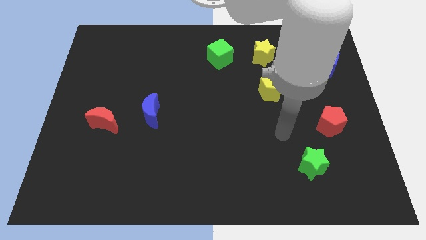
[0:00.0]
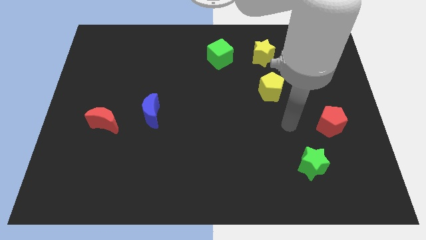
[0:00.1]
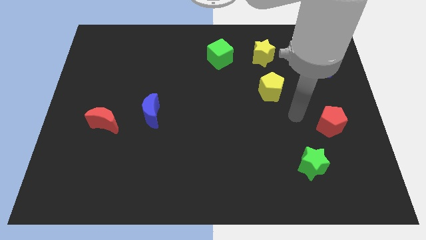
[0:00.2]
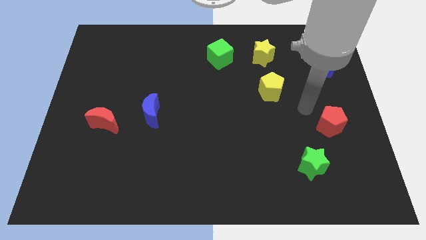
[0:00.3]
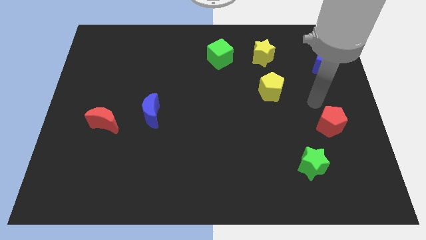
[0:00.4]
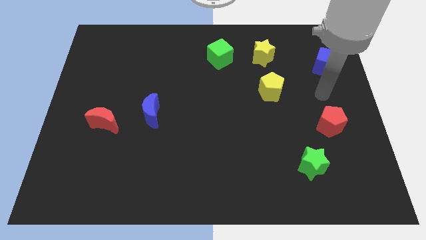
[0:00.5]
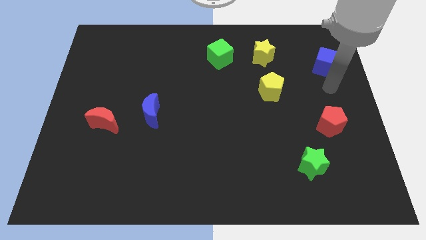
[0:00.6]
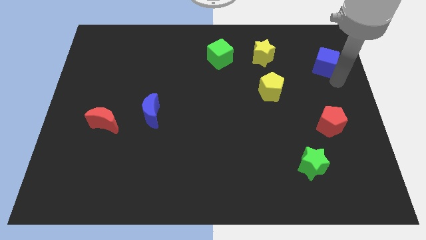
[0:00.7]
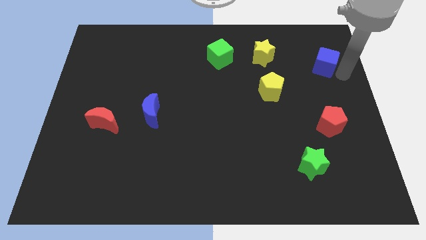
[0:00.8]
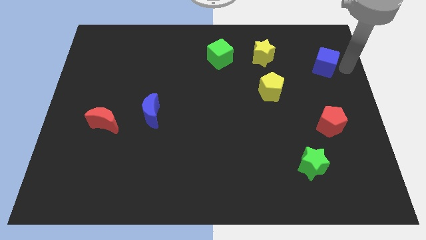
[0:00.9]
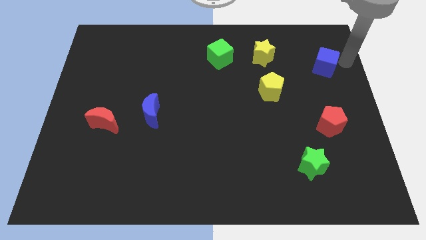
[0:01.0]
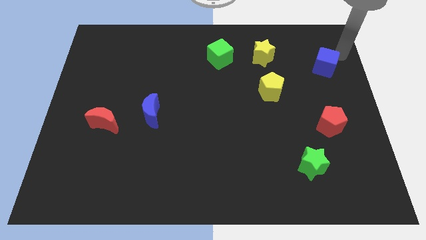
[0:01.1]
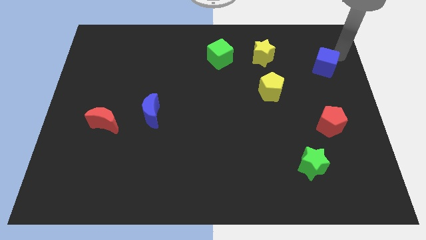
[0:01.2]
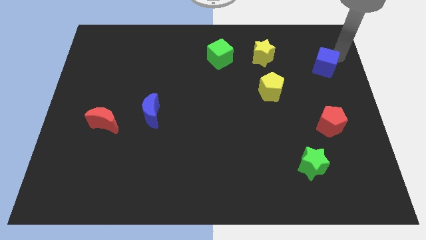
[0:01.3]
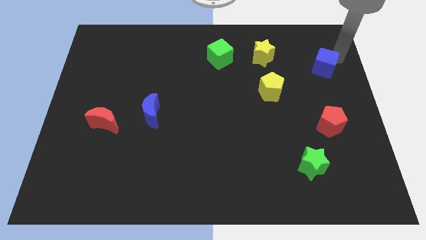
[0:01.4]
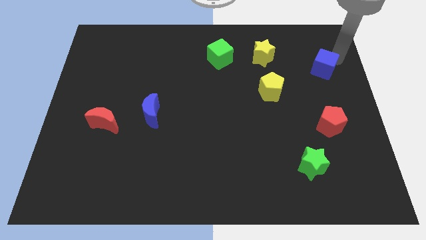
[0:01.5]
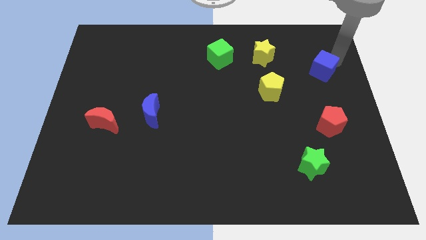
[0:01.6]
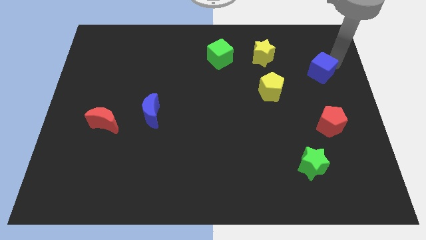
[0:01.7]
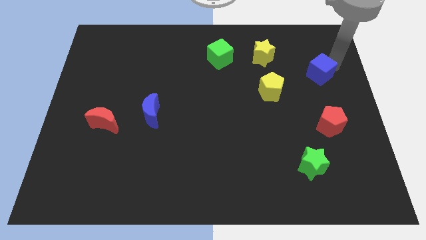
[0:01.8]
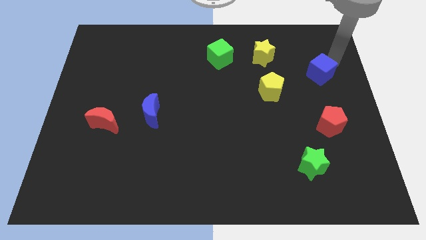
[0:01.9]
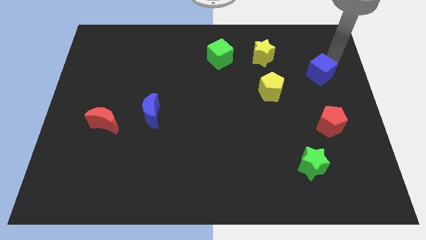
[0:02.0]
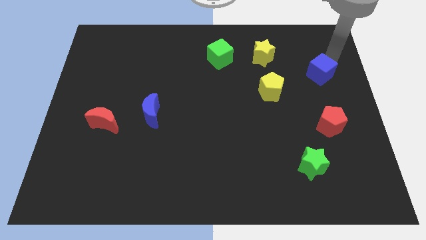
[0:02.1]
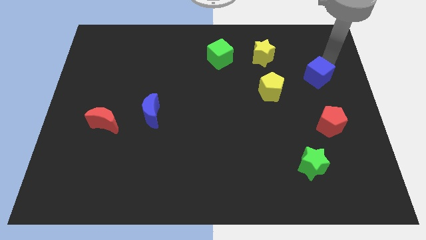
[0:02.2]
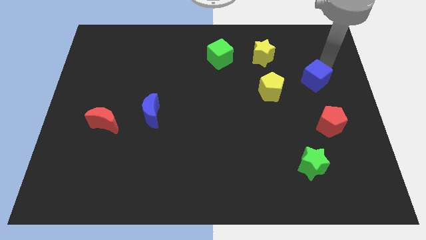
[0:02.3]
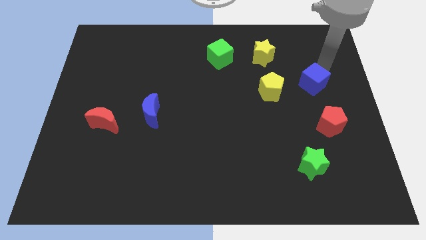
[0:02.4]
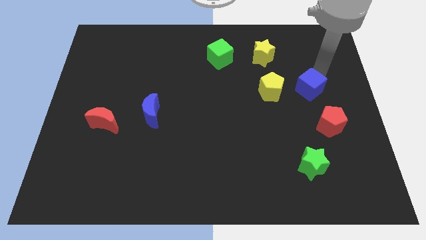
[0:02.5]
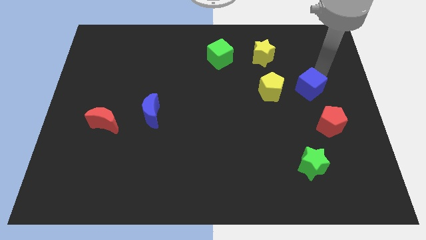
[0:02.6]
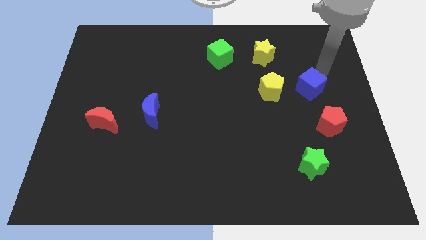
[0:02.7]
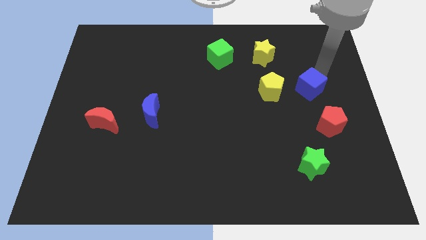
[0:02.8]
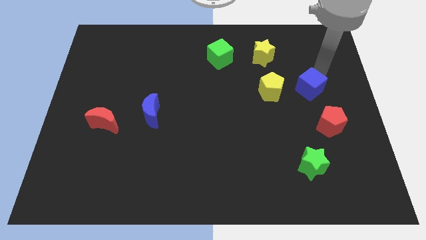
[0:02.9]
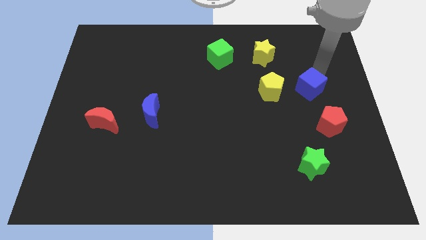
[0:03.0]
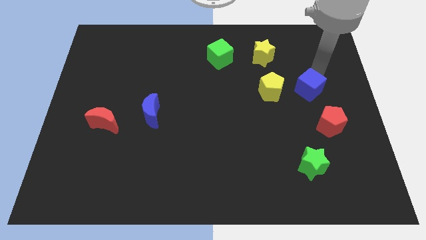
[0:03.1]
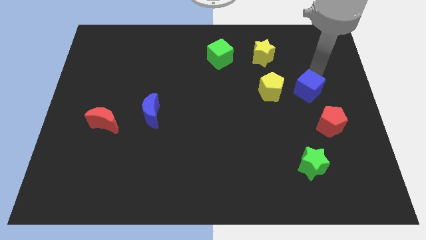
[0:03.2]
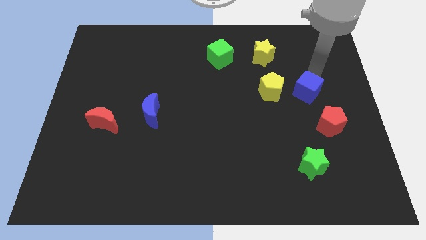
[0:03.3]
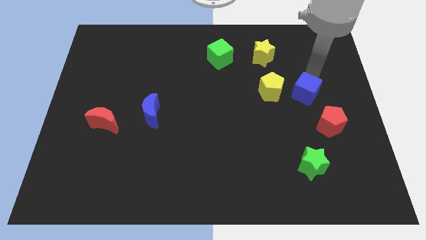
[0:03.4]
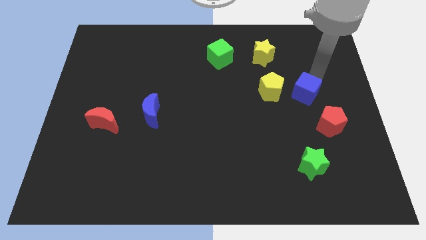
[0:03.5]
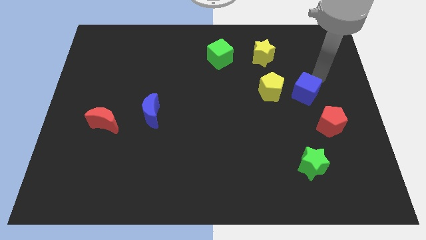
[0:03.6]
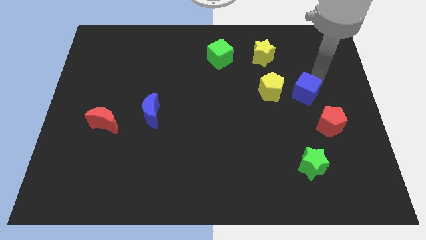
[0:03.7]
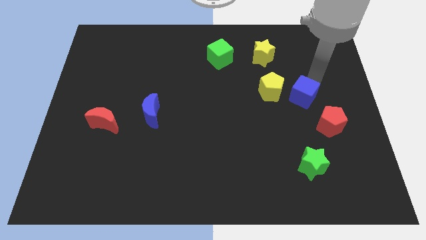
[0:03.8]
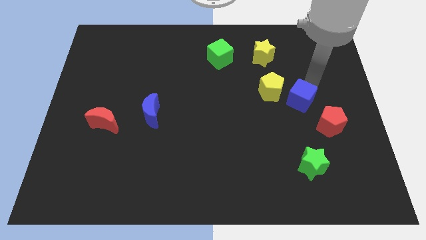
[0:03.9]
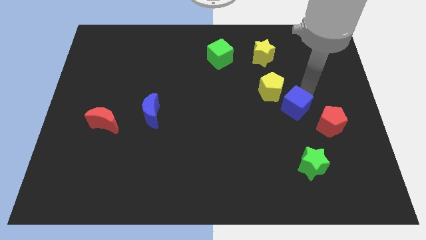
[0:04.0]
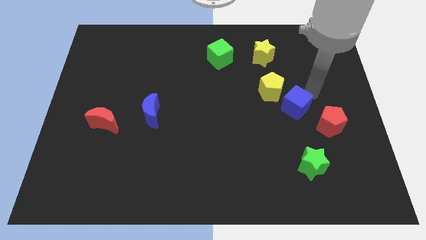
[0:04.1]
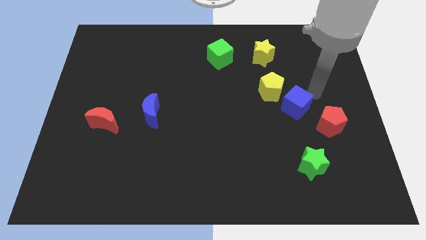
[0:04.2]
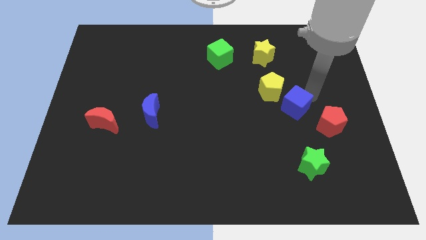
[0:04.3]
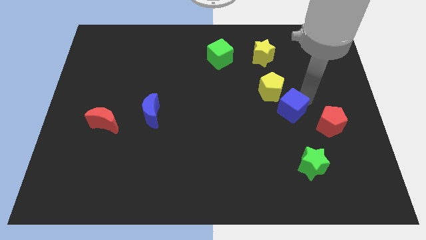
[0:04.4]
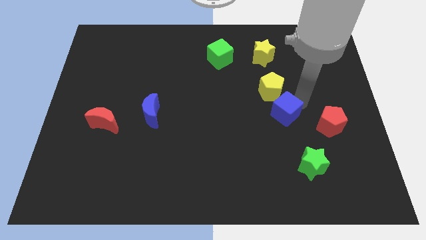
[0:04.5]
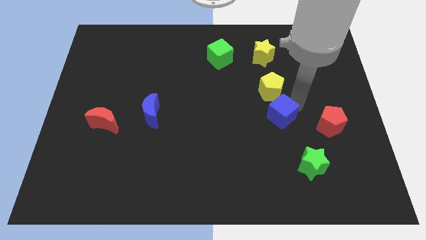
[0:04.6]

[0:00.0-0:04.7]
move the blue cube down and left

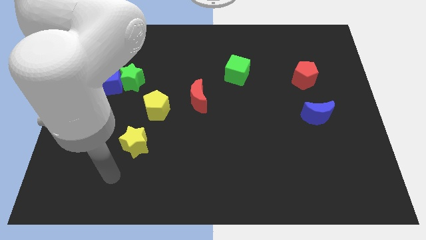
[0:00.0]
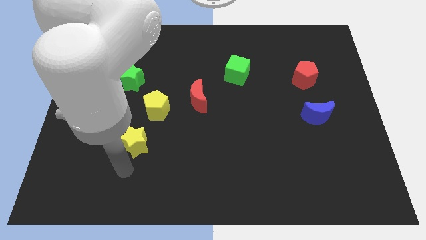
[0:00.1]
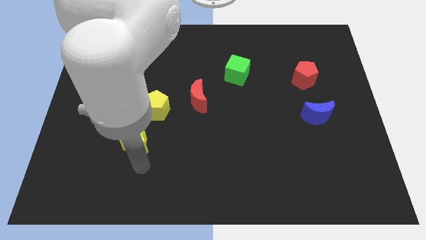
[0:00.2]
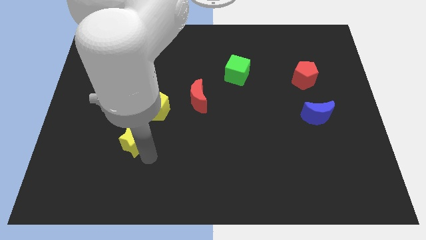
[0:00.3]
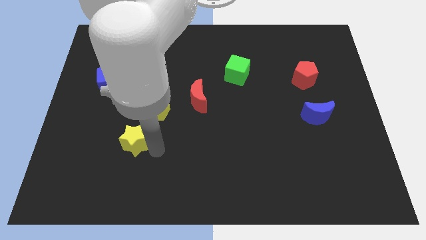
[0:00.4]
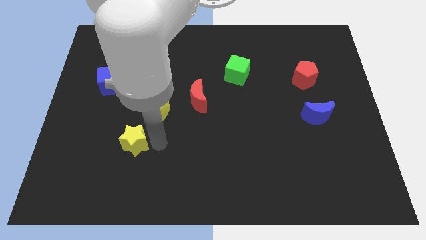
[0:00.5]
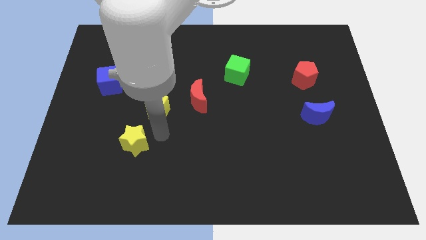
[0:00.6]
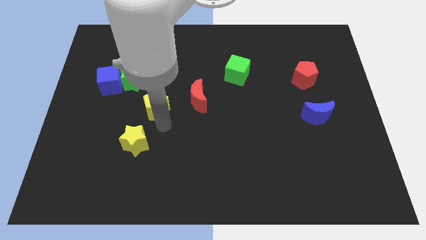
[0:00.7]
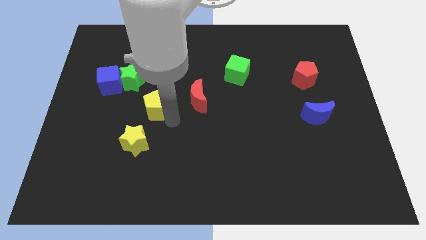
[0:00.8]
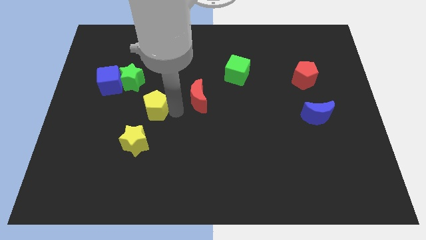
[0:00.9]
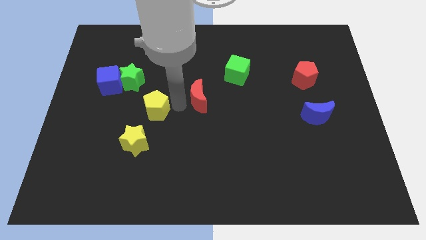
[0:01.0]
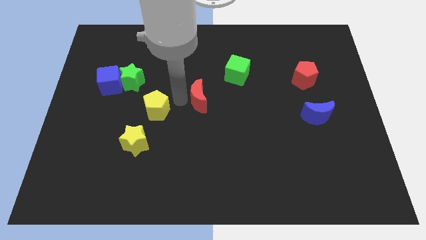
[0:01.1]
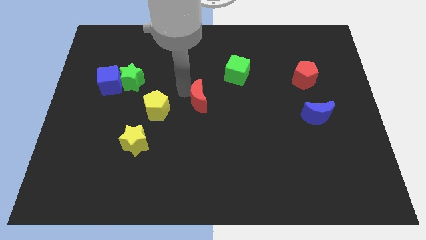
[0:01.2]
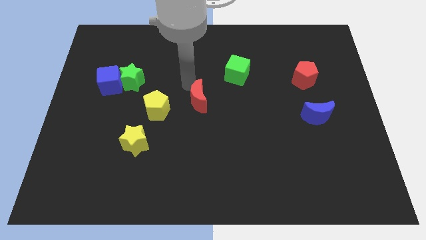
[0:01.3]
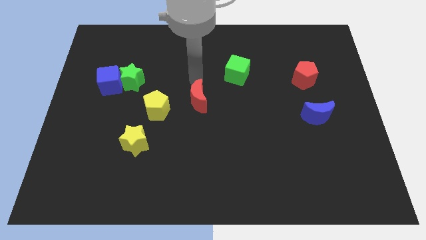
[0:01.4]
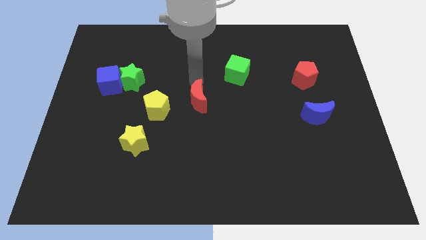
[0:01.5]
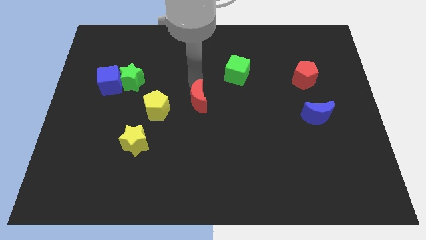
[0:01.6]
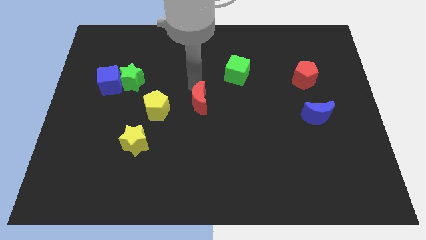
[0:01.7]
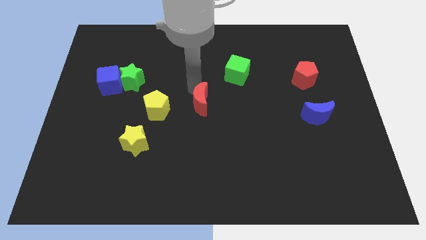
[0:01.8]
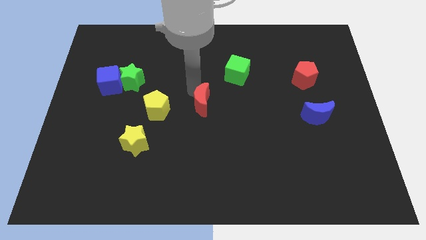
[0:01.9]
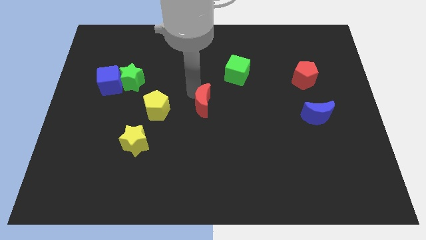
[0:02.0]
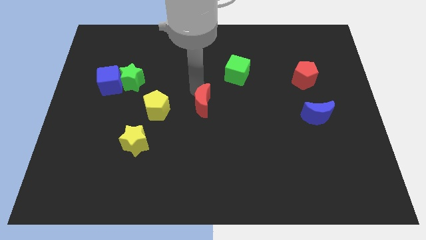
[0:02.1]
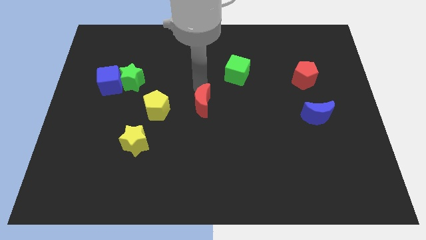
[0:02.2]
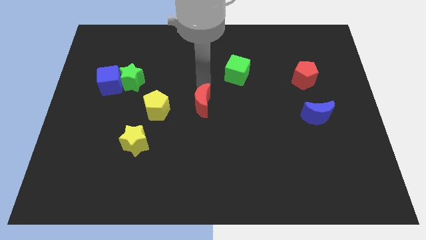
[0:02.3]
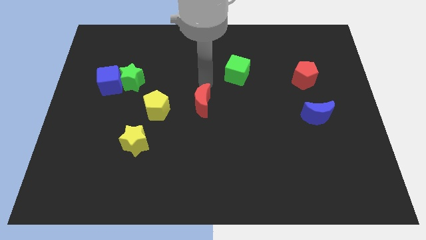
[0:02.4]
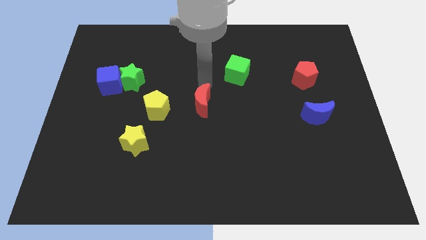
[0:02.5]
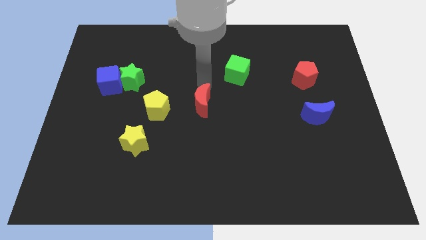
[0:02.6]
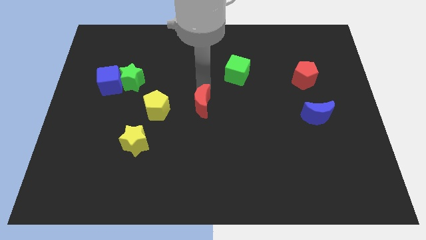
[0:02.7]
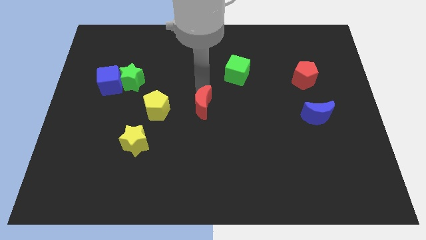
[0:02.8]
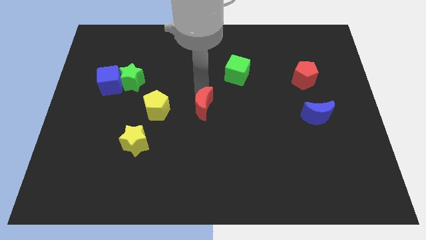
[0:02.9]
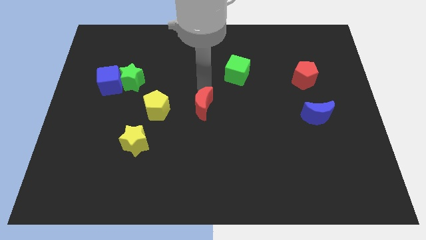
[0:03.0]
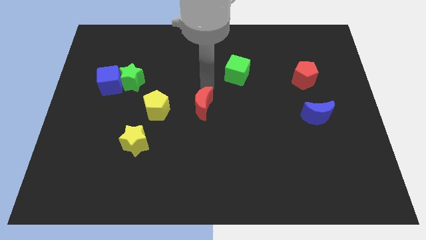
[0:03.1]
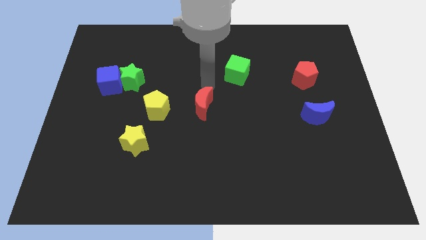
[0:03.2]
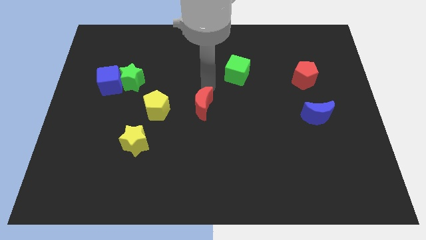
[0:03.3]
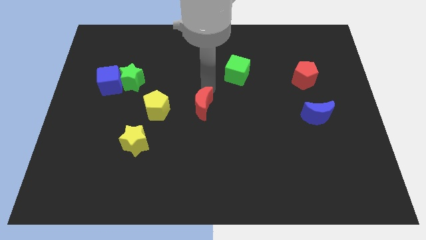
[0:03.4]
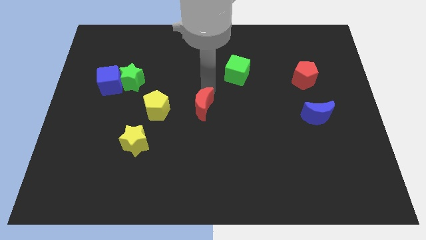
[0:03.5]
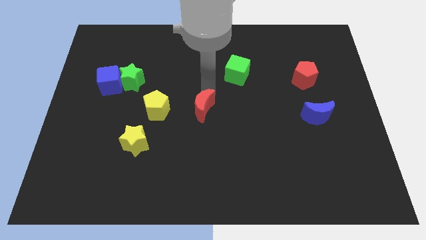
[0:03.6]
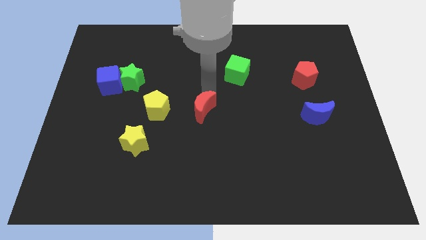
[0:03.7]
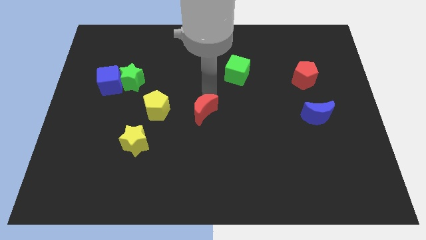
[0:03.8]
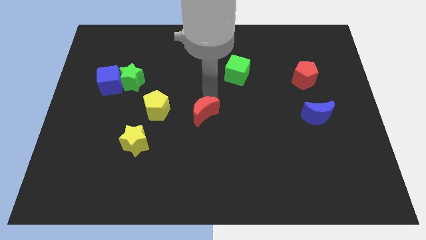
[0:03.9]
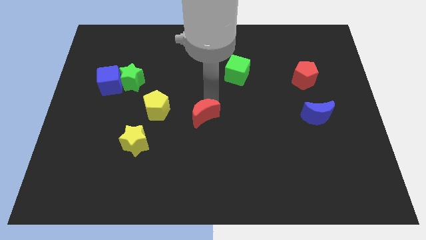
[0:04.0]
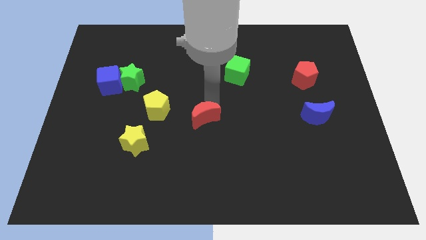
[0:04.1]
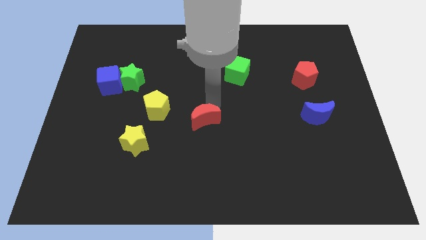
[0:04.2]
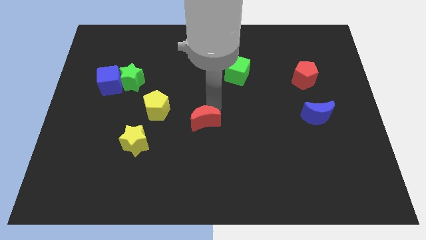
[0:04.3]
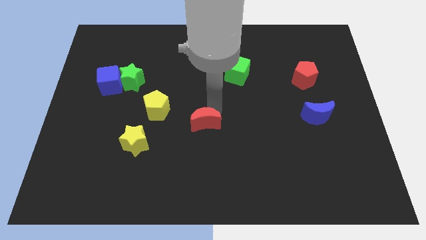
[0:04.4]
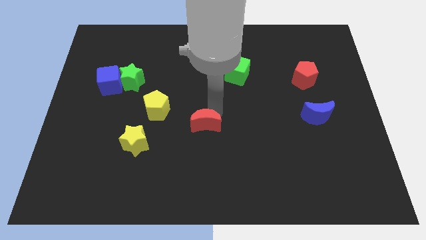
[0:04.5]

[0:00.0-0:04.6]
slide the red moon a bit down
